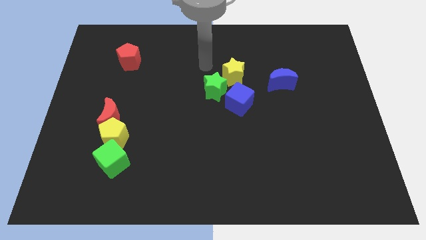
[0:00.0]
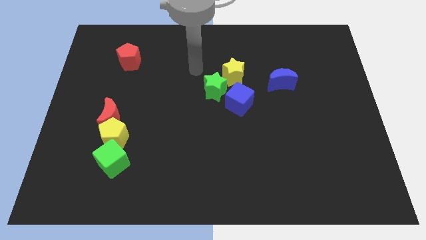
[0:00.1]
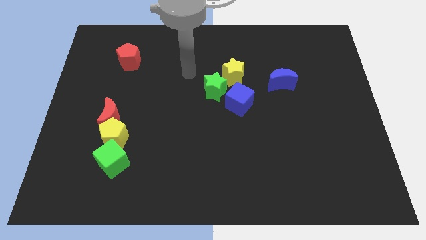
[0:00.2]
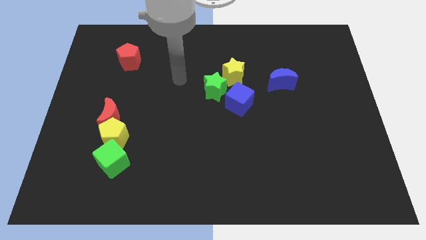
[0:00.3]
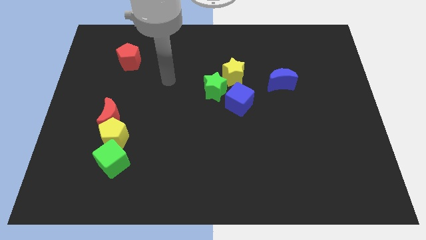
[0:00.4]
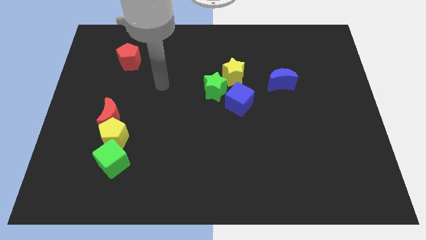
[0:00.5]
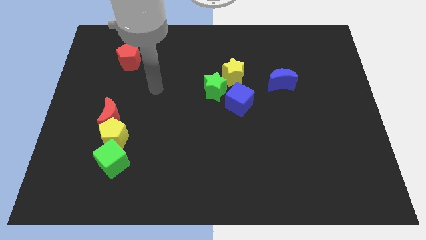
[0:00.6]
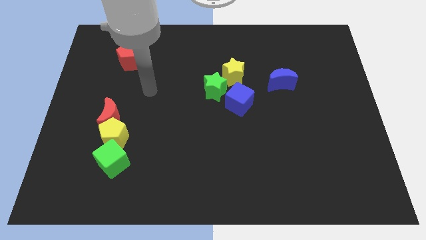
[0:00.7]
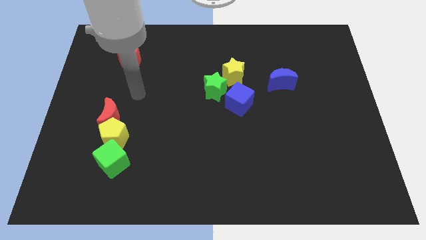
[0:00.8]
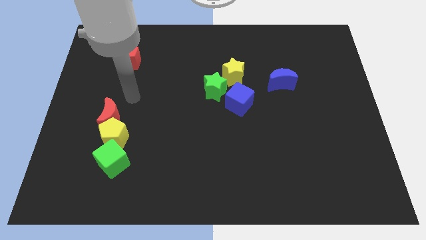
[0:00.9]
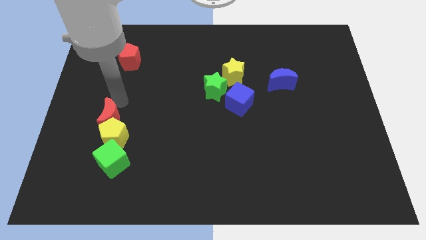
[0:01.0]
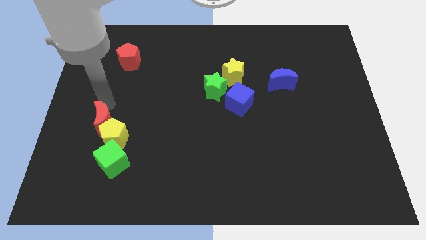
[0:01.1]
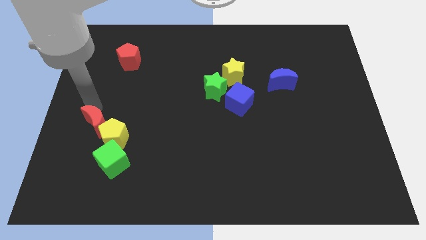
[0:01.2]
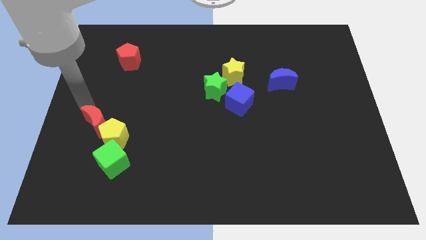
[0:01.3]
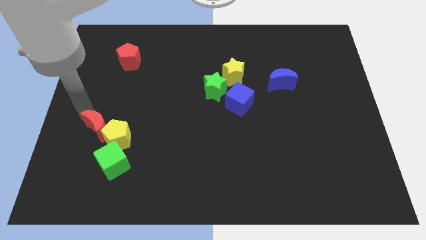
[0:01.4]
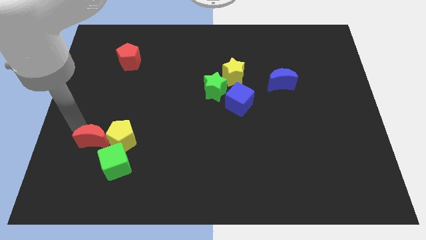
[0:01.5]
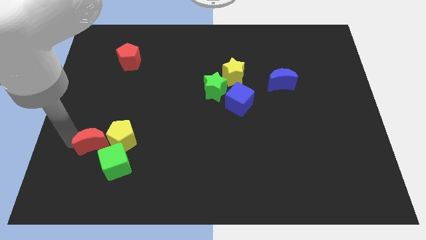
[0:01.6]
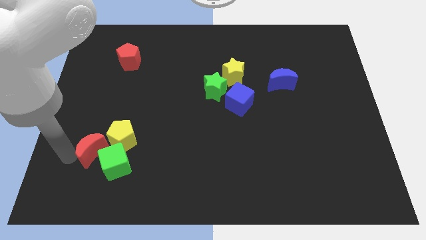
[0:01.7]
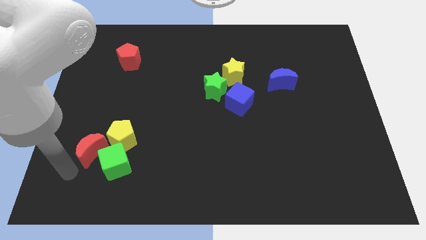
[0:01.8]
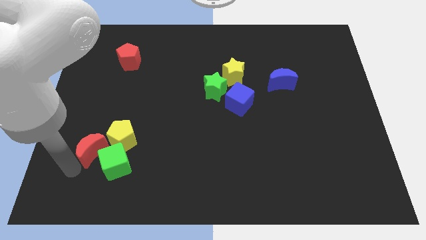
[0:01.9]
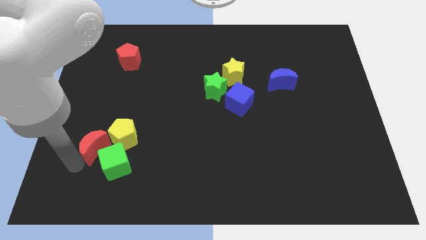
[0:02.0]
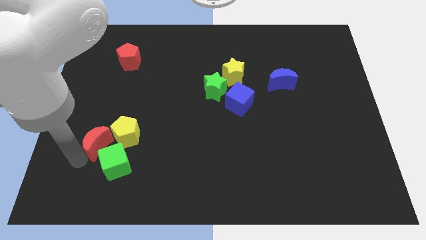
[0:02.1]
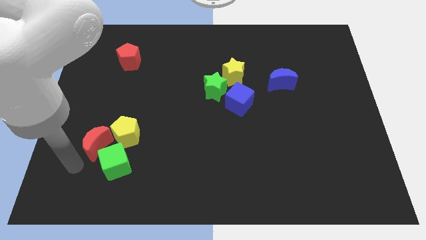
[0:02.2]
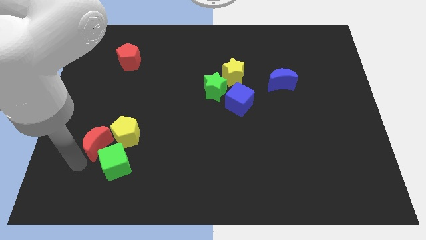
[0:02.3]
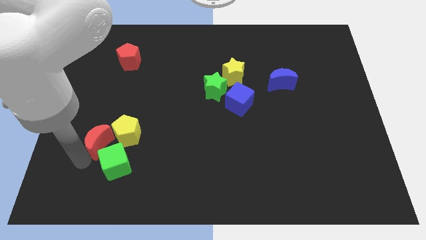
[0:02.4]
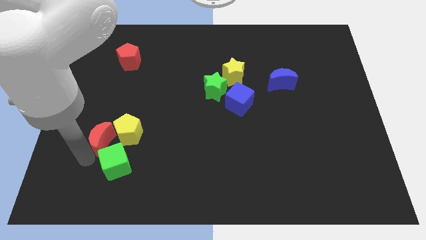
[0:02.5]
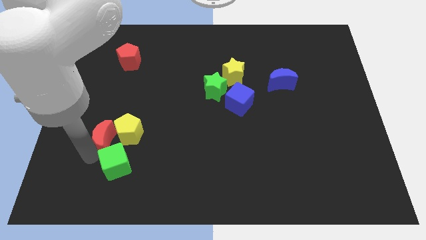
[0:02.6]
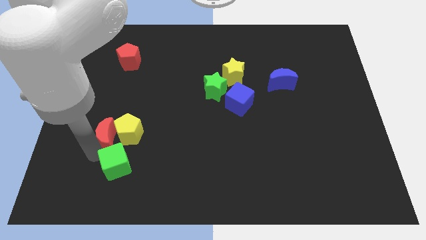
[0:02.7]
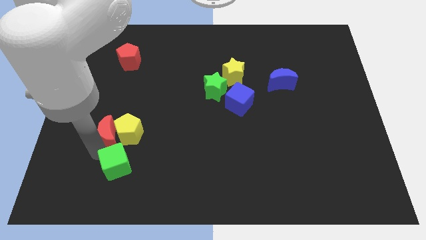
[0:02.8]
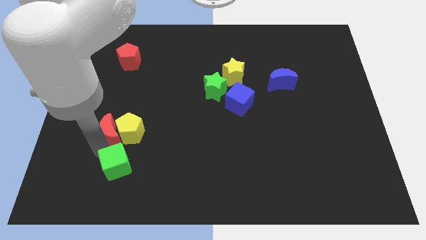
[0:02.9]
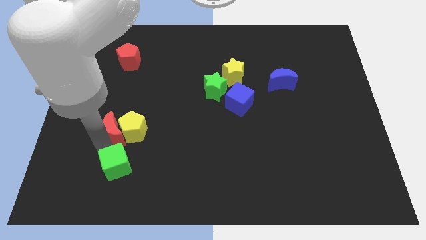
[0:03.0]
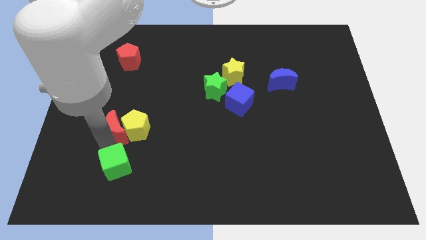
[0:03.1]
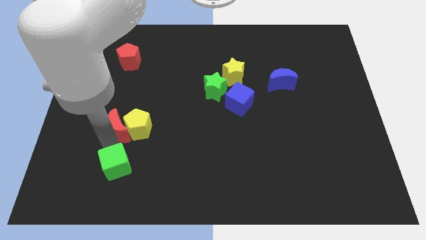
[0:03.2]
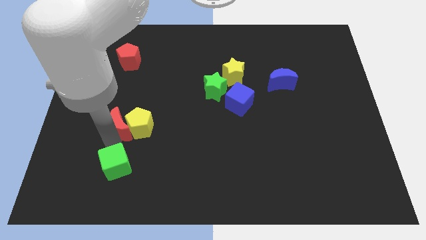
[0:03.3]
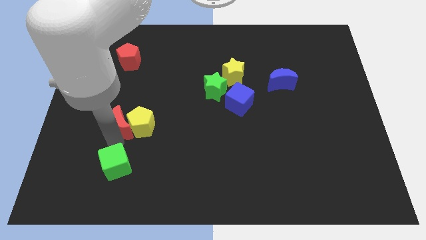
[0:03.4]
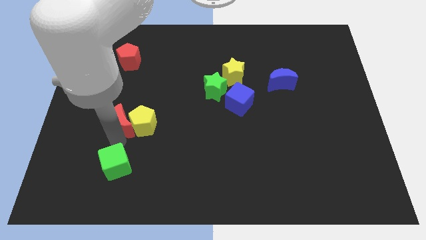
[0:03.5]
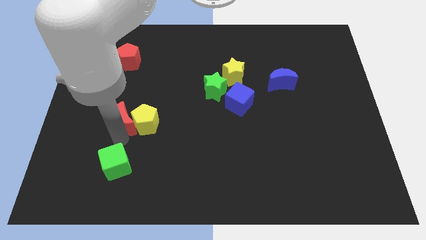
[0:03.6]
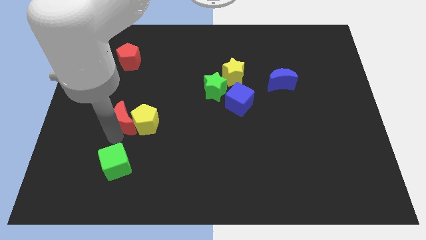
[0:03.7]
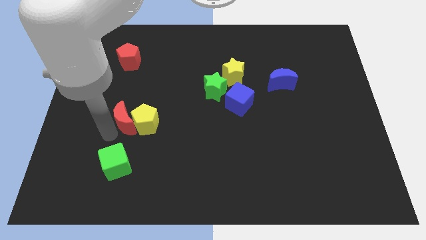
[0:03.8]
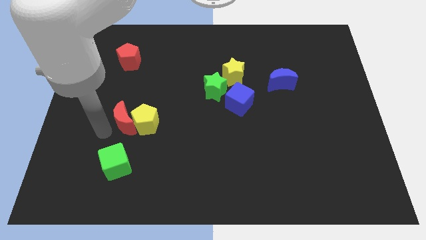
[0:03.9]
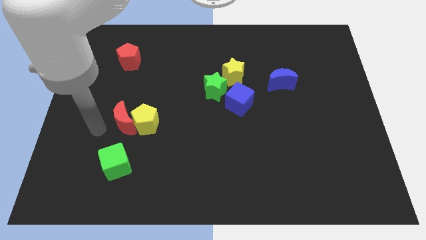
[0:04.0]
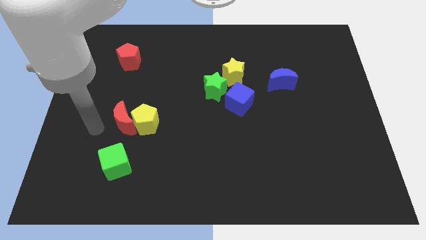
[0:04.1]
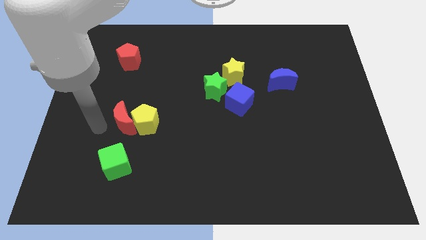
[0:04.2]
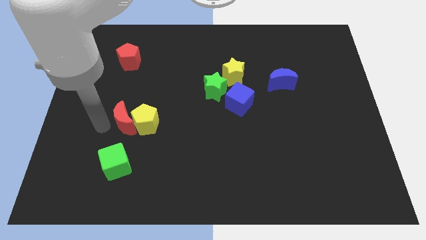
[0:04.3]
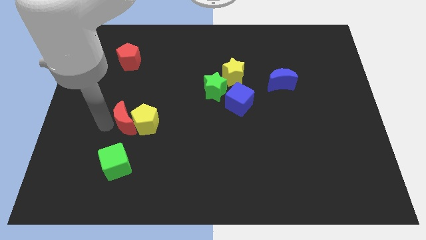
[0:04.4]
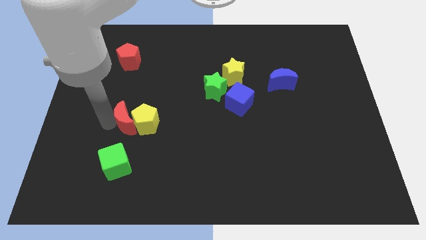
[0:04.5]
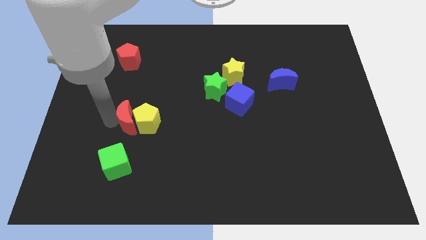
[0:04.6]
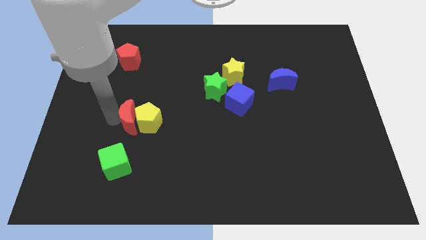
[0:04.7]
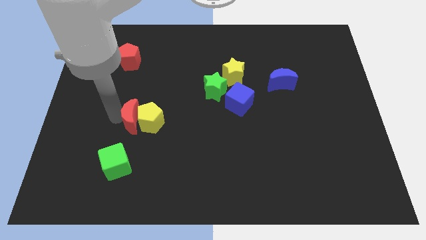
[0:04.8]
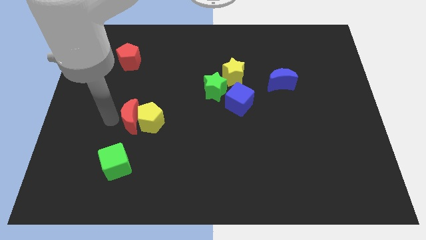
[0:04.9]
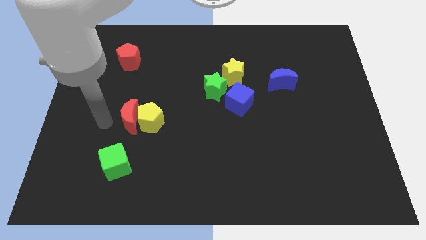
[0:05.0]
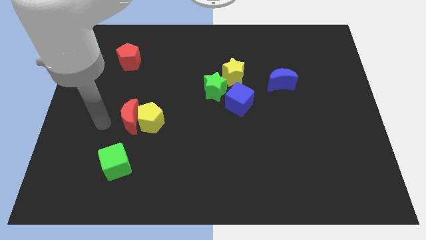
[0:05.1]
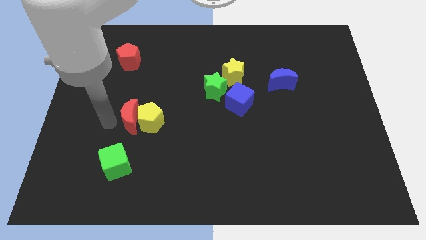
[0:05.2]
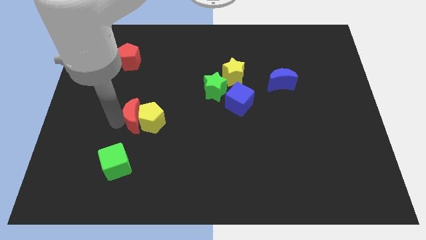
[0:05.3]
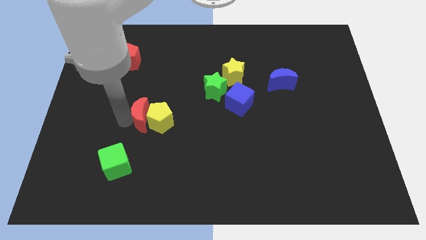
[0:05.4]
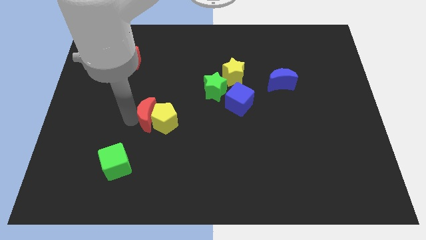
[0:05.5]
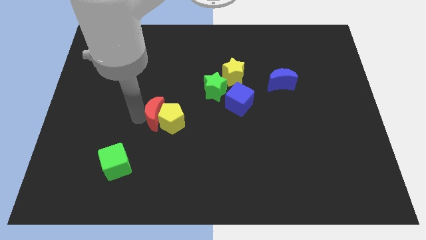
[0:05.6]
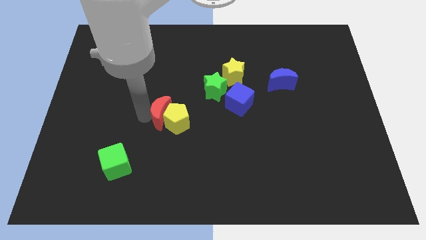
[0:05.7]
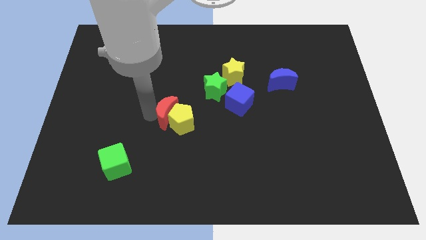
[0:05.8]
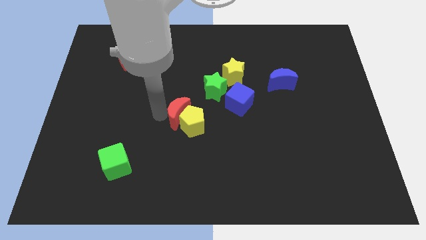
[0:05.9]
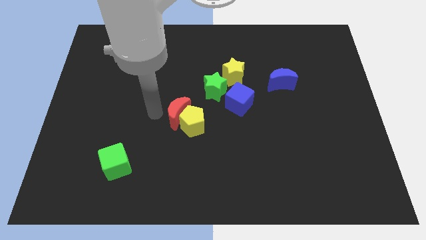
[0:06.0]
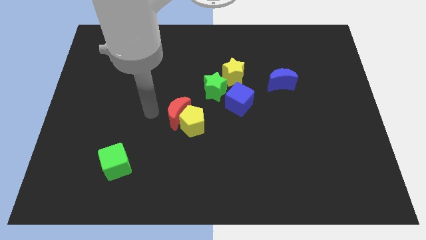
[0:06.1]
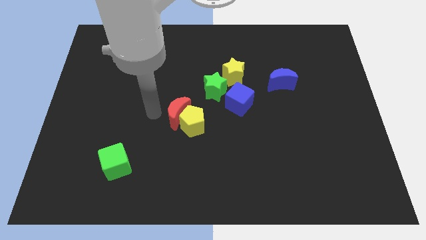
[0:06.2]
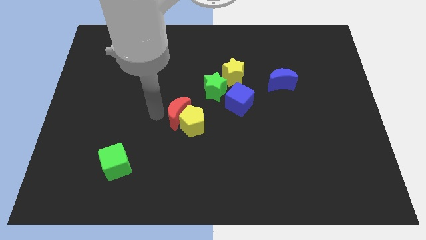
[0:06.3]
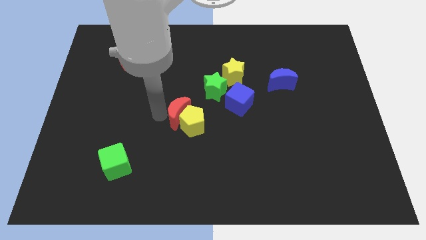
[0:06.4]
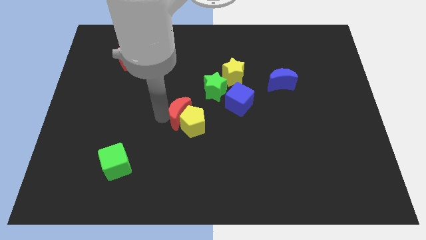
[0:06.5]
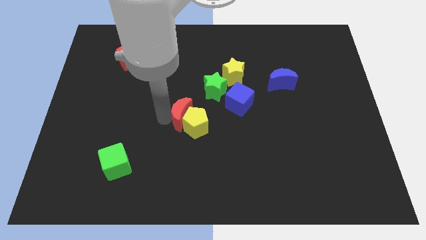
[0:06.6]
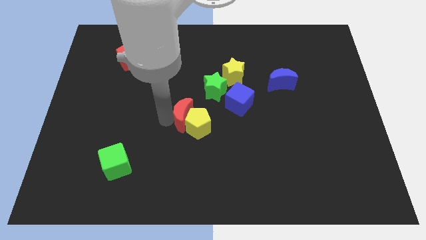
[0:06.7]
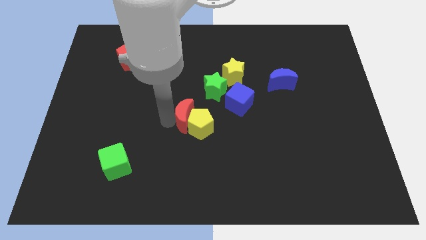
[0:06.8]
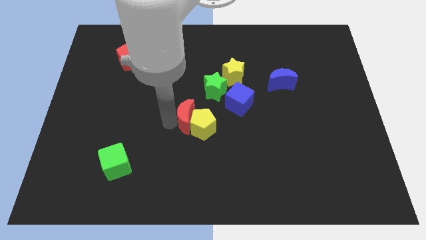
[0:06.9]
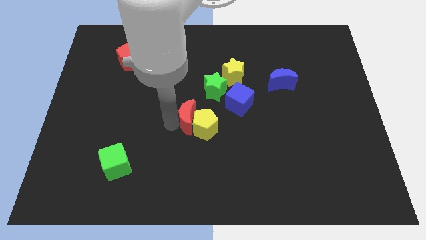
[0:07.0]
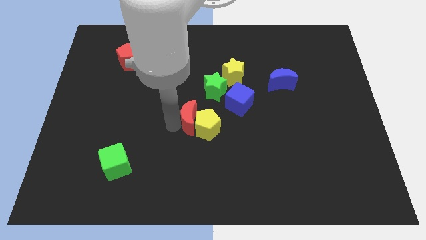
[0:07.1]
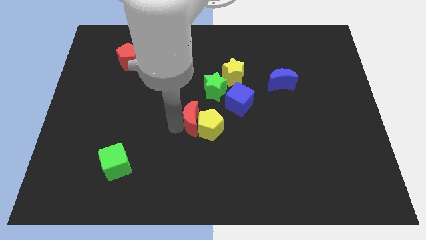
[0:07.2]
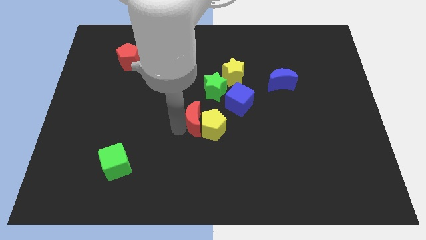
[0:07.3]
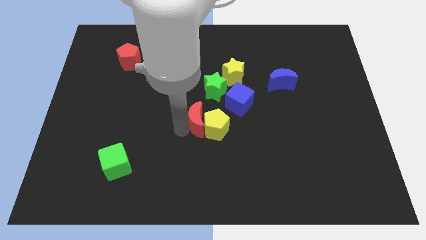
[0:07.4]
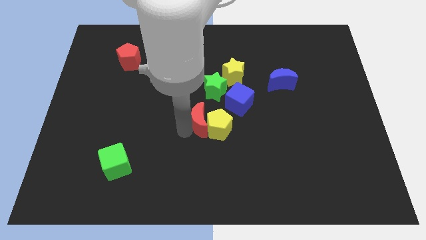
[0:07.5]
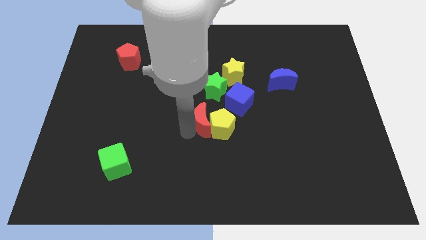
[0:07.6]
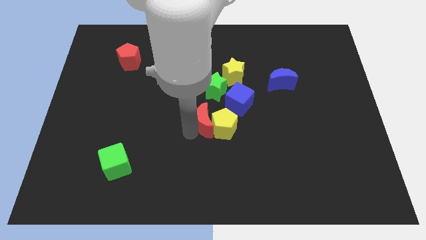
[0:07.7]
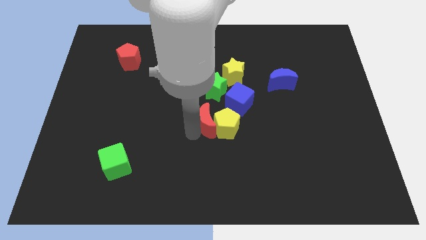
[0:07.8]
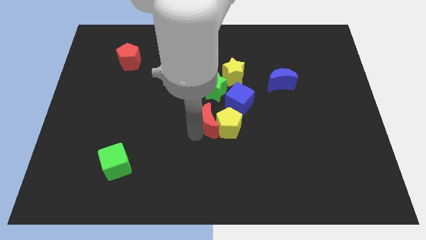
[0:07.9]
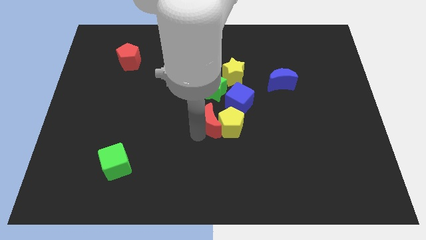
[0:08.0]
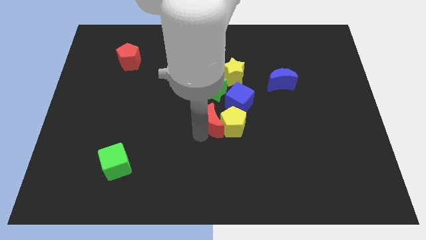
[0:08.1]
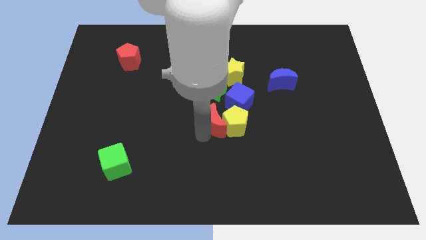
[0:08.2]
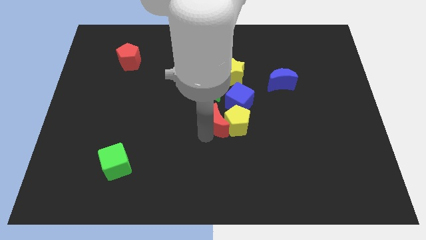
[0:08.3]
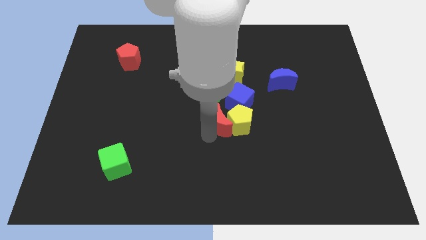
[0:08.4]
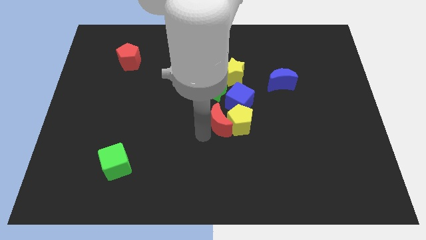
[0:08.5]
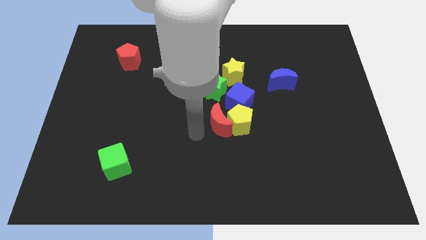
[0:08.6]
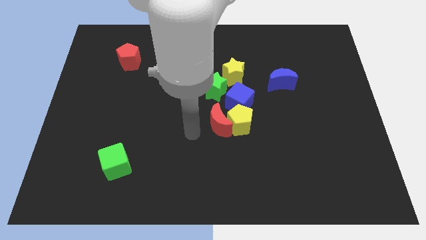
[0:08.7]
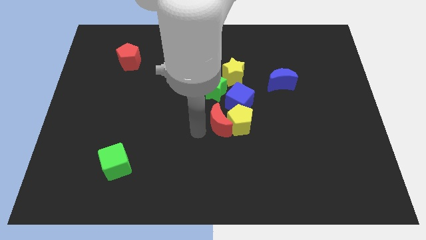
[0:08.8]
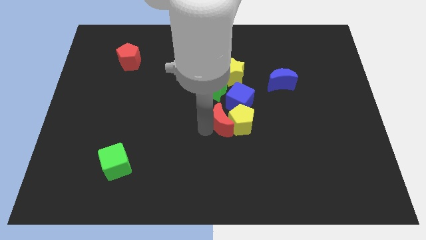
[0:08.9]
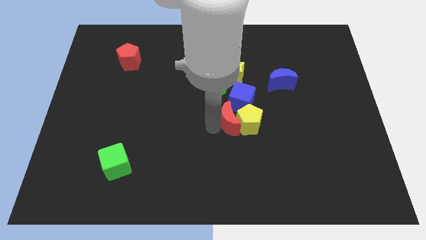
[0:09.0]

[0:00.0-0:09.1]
move the red moon to the bottom right side of the green star
